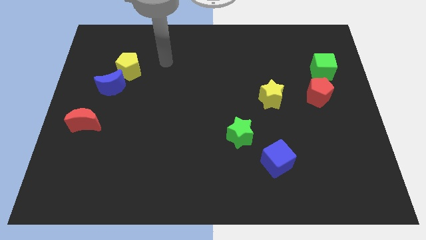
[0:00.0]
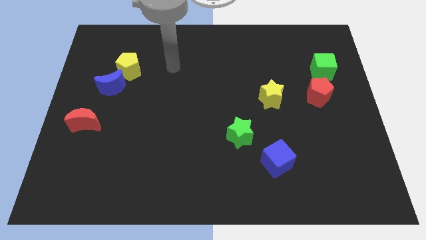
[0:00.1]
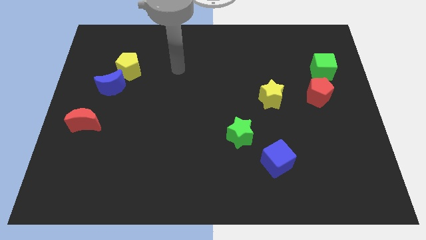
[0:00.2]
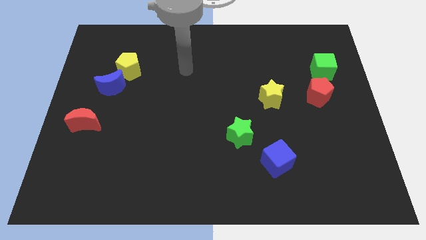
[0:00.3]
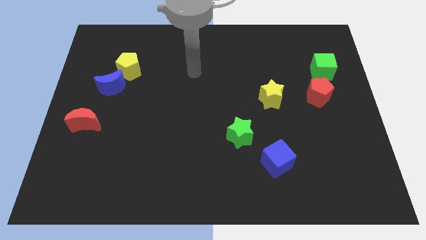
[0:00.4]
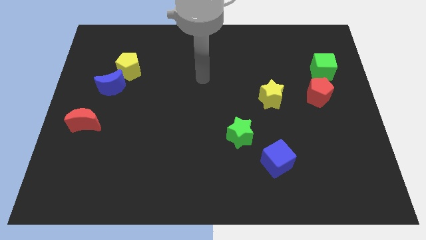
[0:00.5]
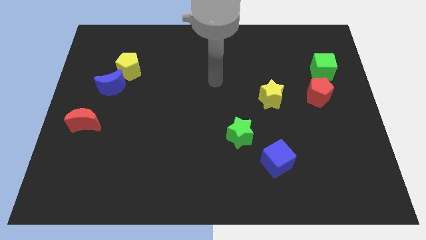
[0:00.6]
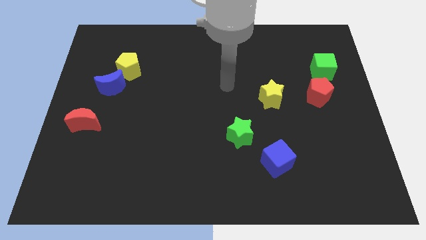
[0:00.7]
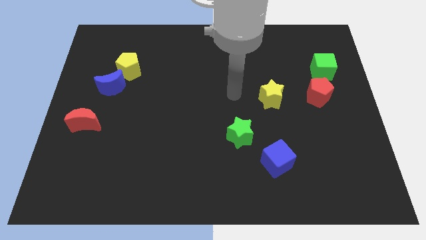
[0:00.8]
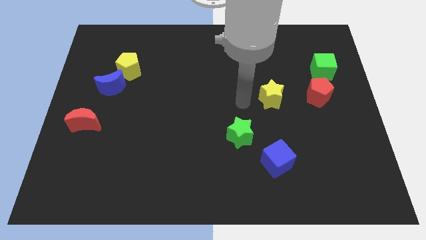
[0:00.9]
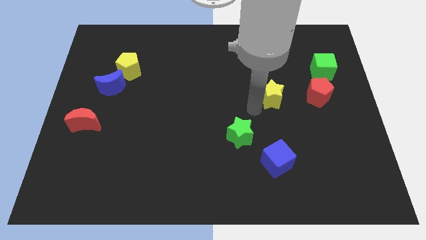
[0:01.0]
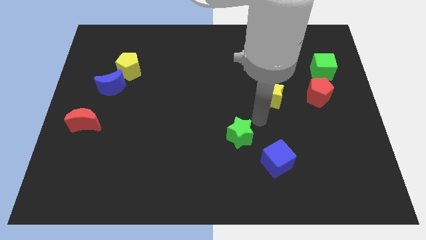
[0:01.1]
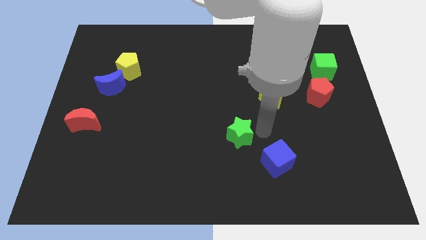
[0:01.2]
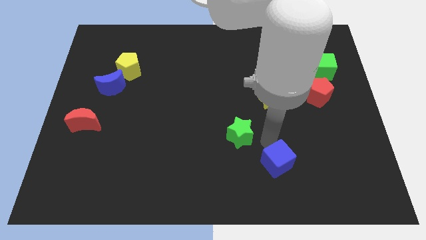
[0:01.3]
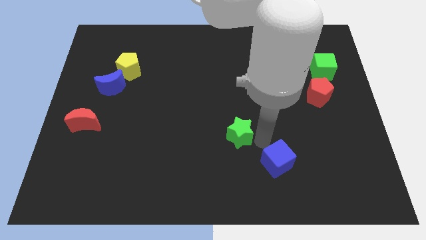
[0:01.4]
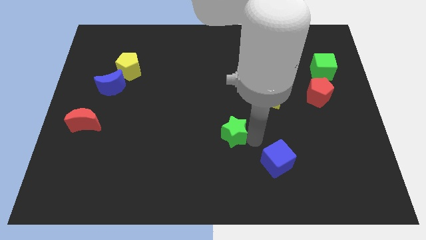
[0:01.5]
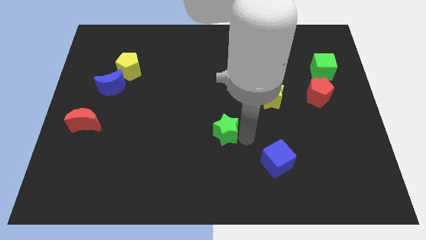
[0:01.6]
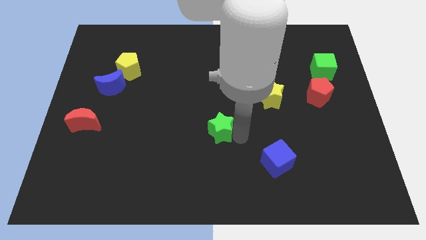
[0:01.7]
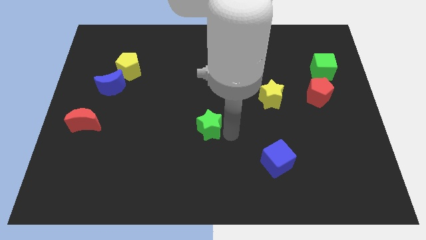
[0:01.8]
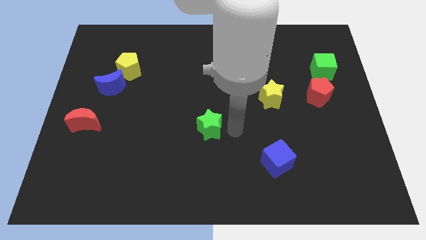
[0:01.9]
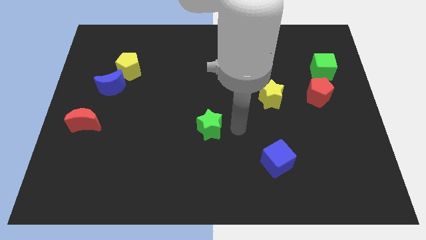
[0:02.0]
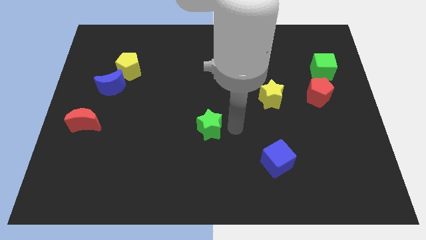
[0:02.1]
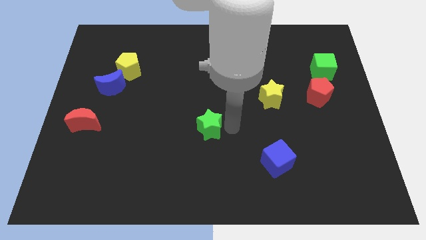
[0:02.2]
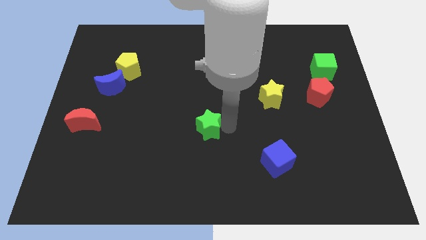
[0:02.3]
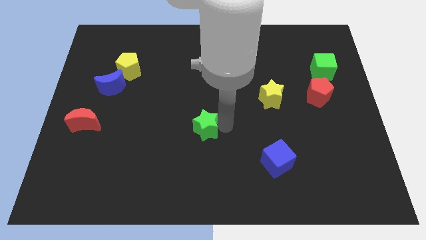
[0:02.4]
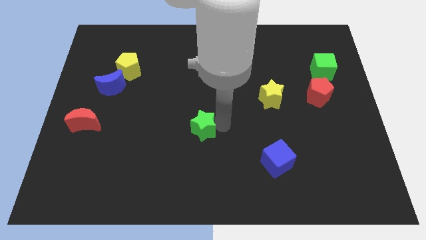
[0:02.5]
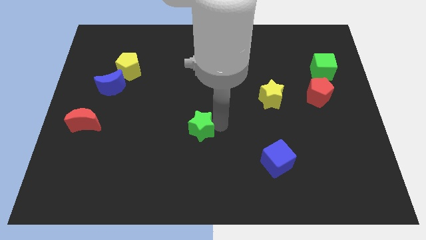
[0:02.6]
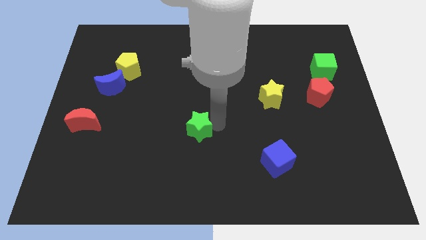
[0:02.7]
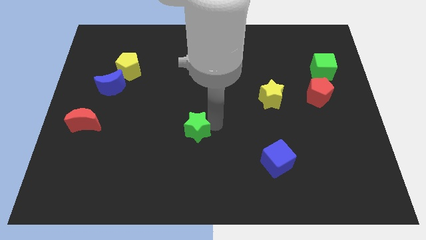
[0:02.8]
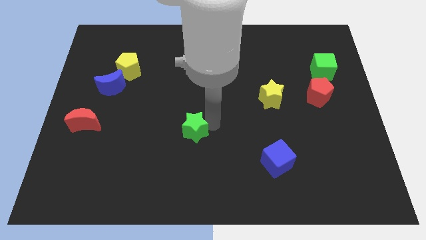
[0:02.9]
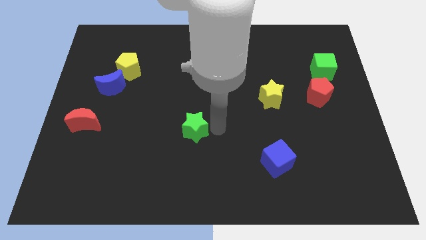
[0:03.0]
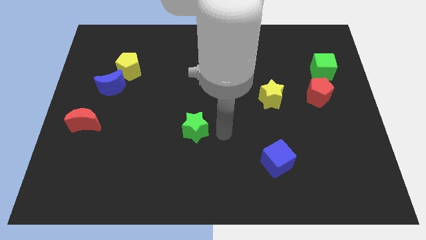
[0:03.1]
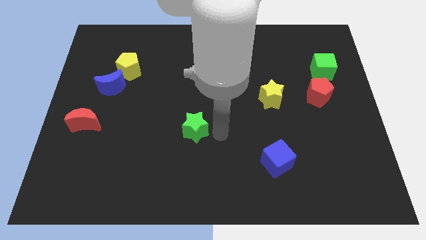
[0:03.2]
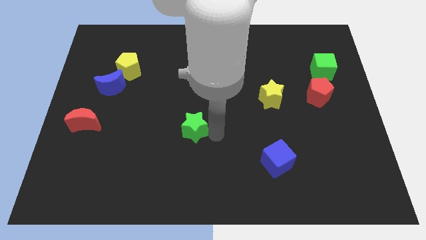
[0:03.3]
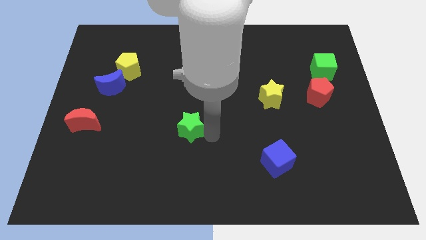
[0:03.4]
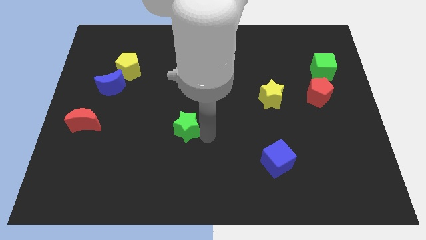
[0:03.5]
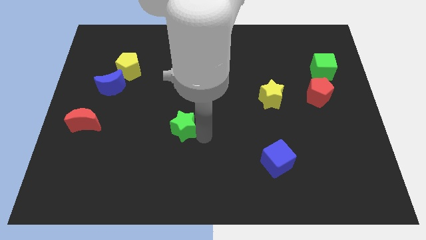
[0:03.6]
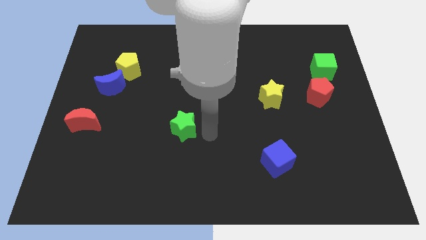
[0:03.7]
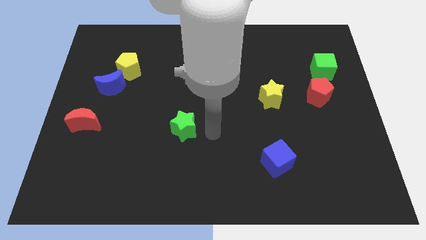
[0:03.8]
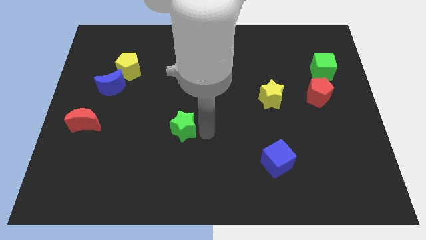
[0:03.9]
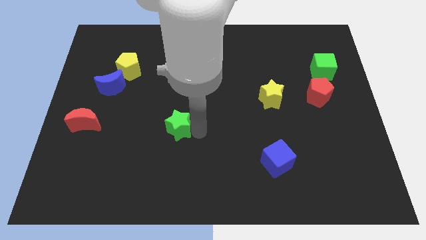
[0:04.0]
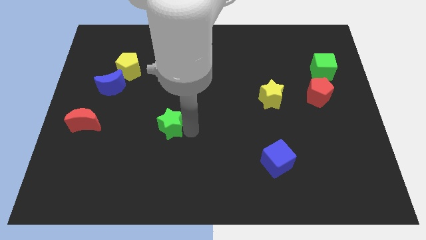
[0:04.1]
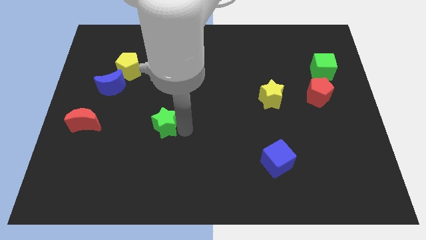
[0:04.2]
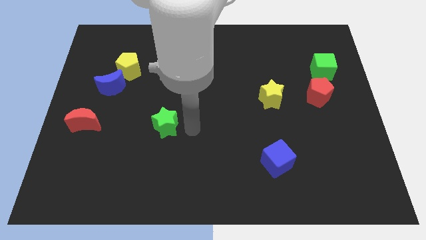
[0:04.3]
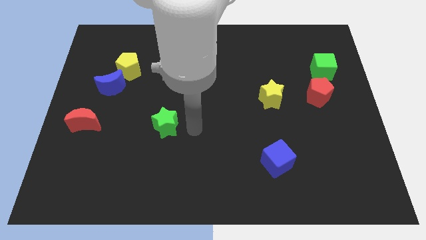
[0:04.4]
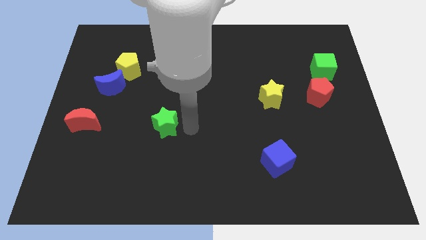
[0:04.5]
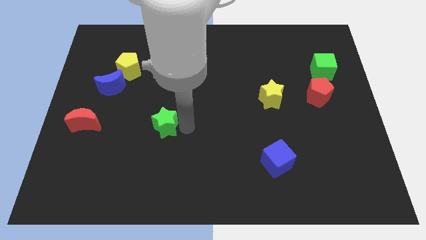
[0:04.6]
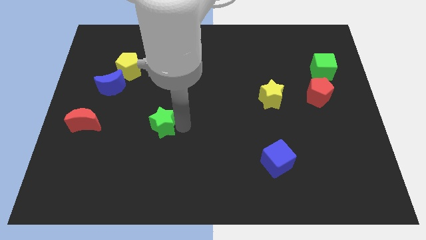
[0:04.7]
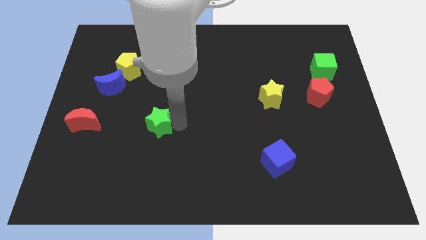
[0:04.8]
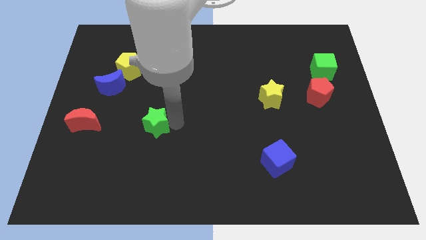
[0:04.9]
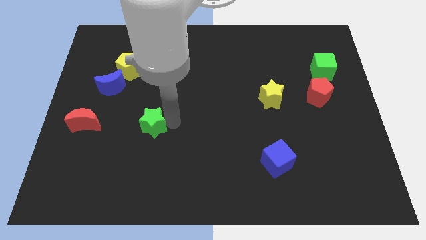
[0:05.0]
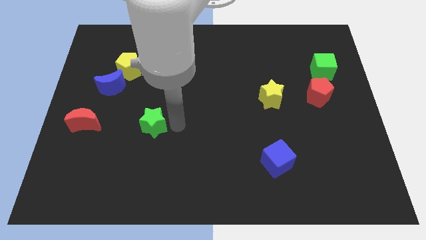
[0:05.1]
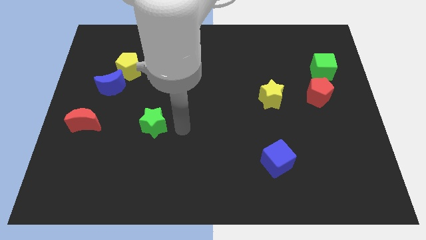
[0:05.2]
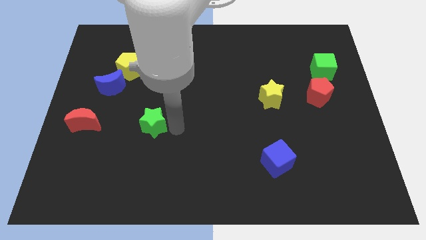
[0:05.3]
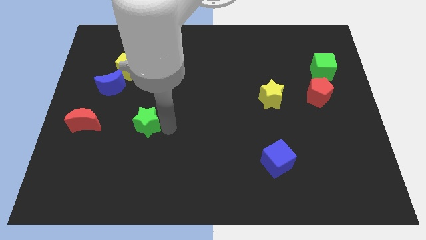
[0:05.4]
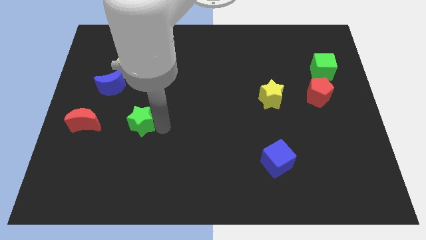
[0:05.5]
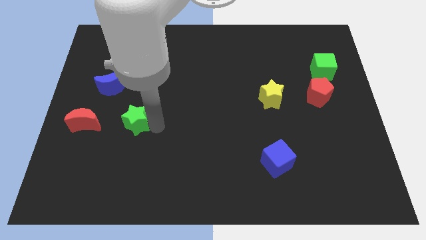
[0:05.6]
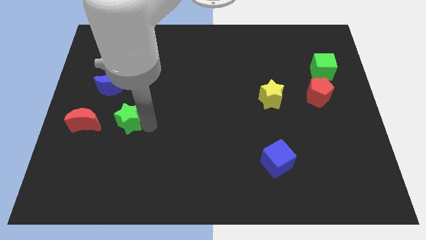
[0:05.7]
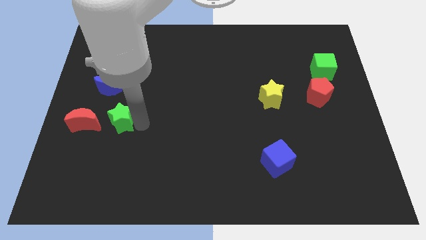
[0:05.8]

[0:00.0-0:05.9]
move the green star to the bottom of the blue moon
